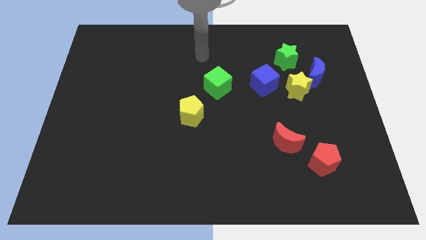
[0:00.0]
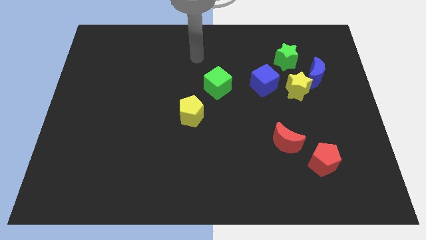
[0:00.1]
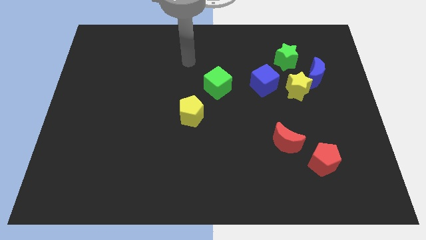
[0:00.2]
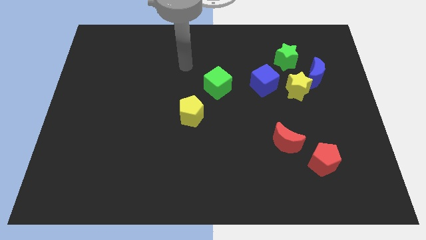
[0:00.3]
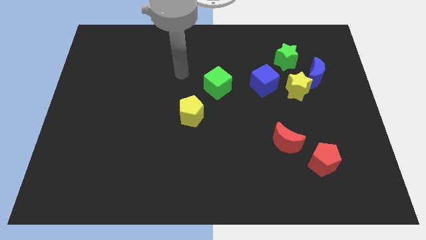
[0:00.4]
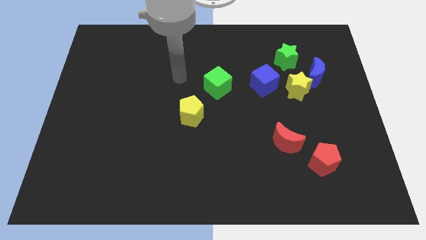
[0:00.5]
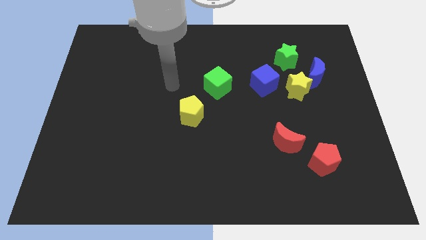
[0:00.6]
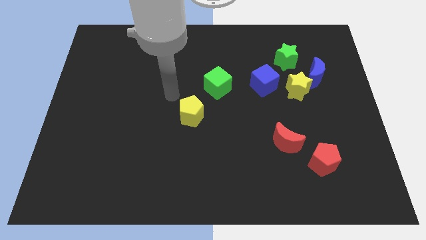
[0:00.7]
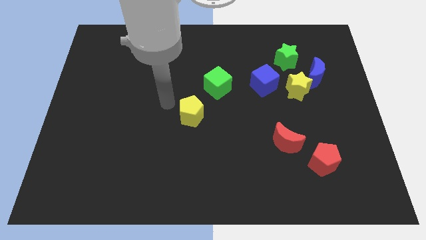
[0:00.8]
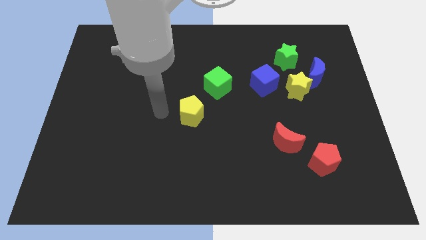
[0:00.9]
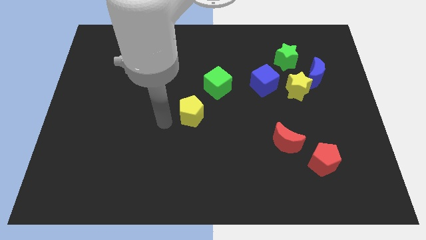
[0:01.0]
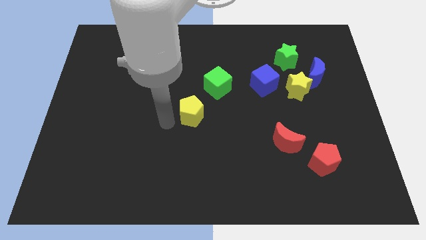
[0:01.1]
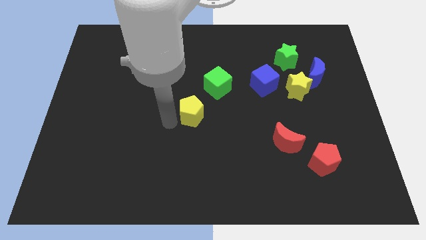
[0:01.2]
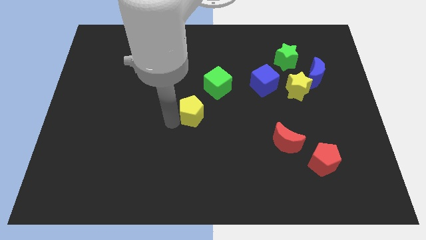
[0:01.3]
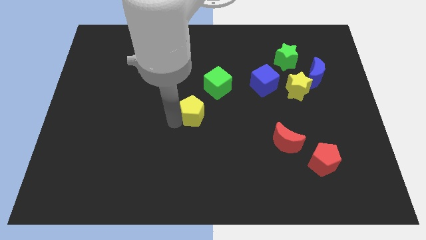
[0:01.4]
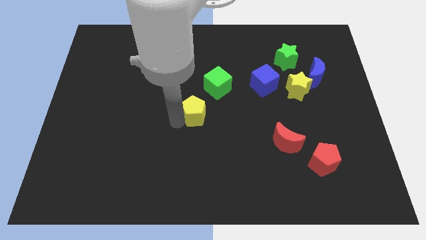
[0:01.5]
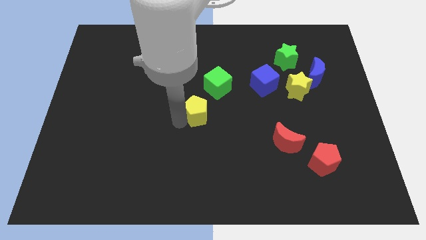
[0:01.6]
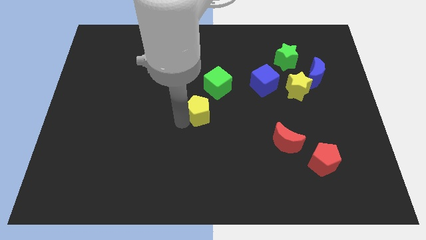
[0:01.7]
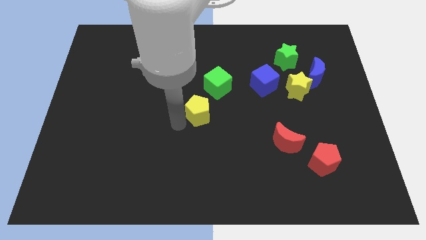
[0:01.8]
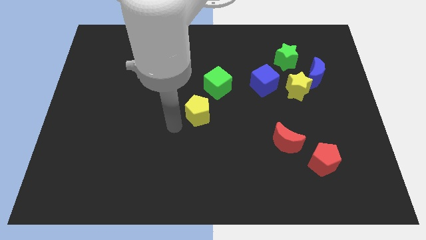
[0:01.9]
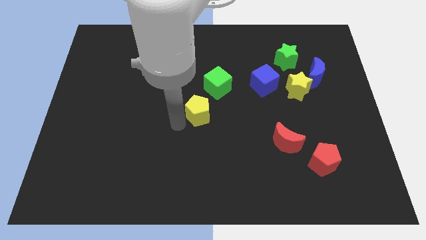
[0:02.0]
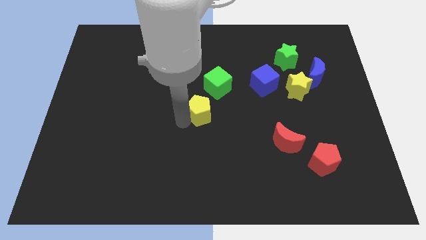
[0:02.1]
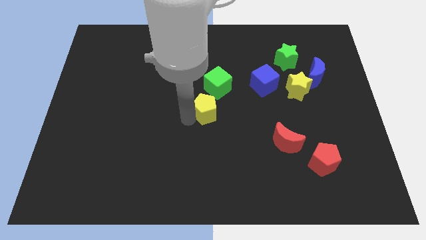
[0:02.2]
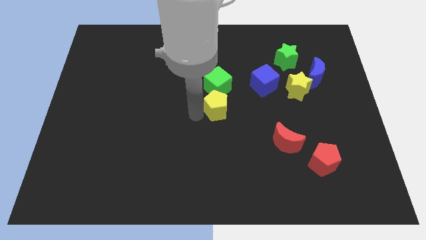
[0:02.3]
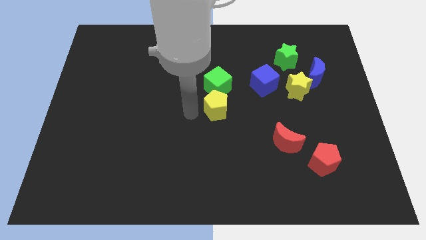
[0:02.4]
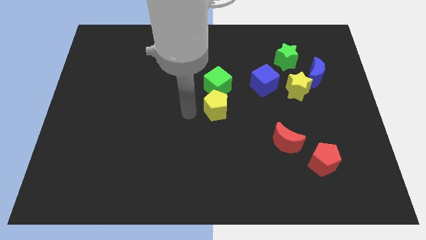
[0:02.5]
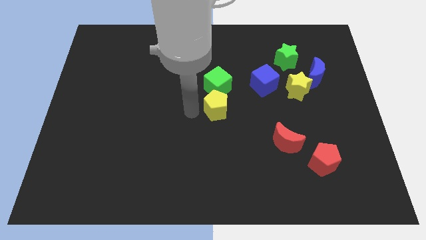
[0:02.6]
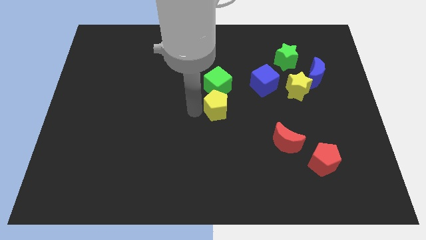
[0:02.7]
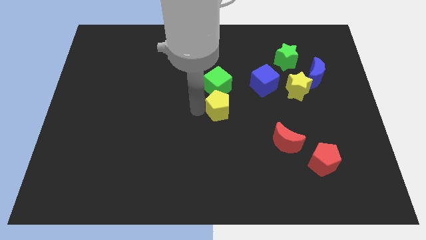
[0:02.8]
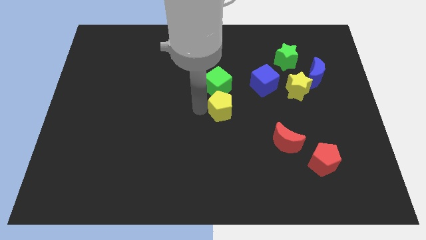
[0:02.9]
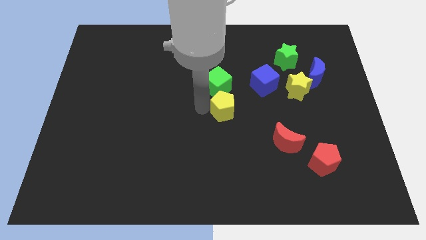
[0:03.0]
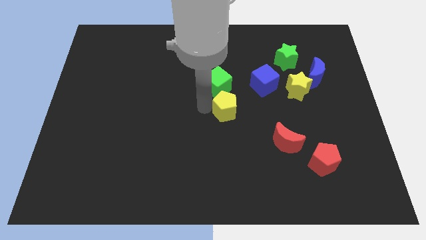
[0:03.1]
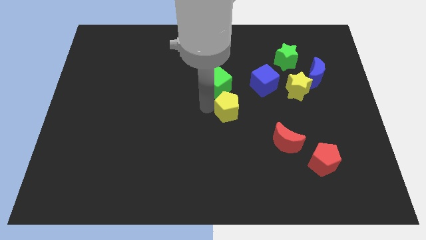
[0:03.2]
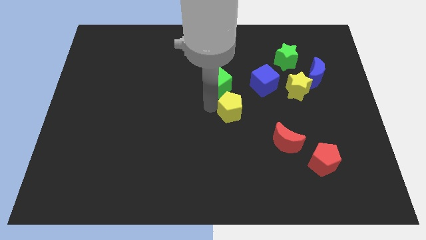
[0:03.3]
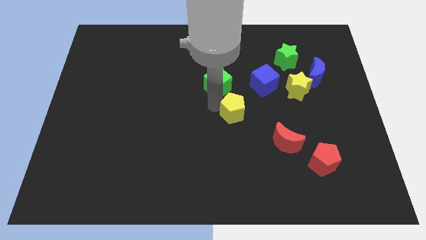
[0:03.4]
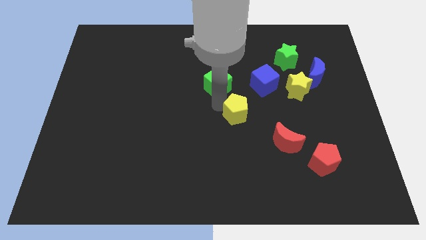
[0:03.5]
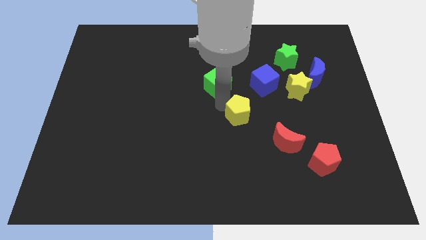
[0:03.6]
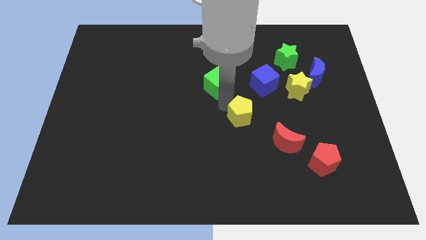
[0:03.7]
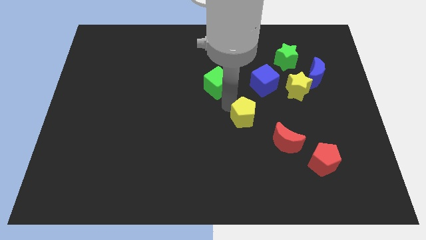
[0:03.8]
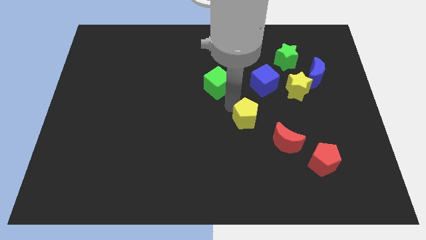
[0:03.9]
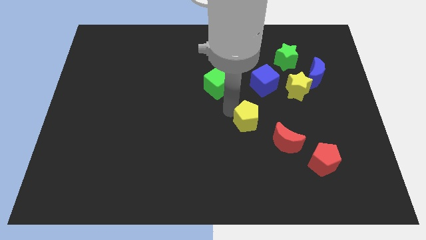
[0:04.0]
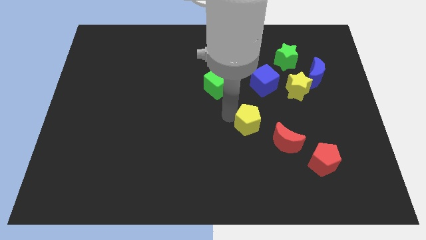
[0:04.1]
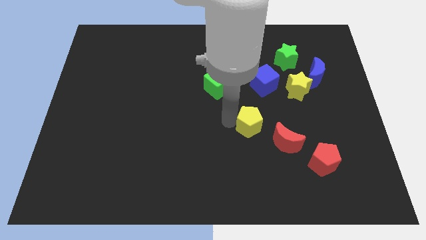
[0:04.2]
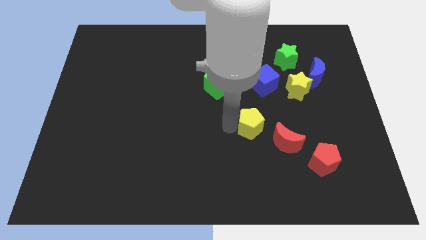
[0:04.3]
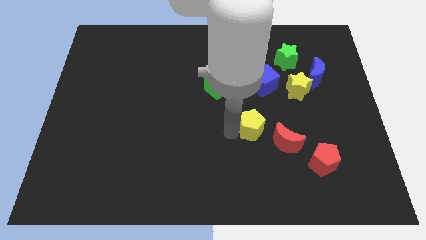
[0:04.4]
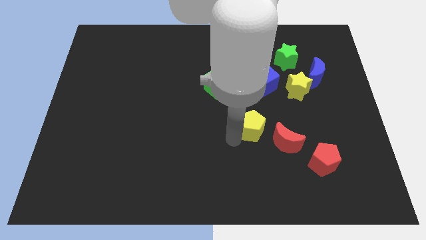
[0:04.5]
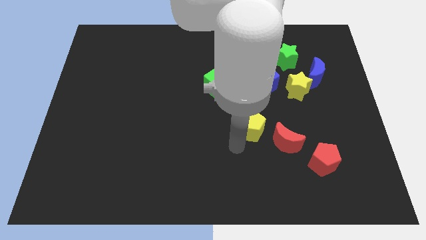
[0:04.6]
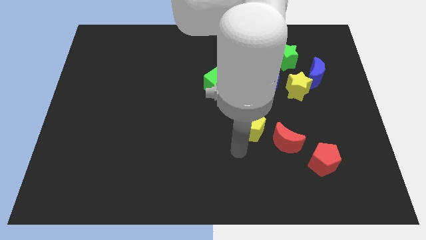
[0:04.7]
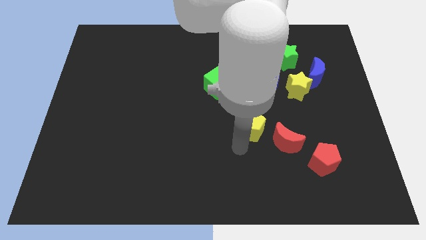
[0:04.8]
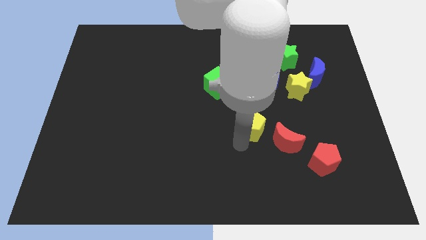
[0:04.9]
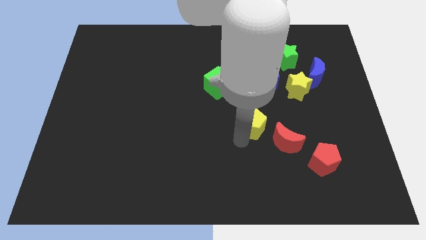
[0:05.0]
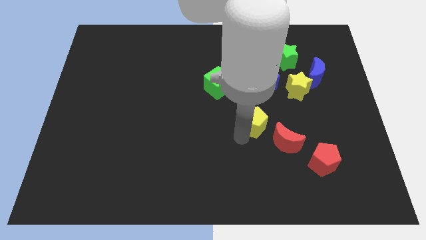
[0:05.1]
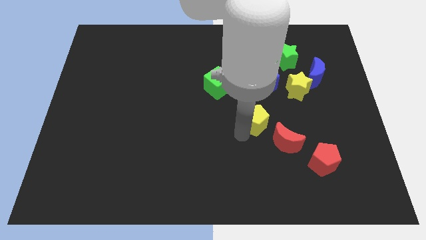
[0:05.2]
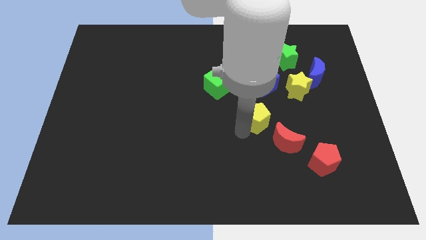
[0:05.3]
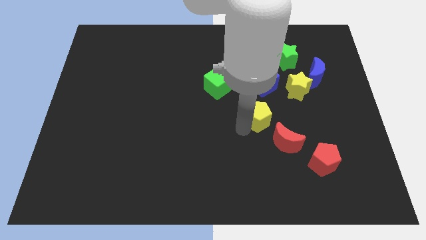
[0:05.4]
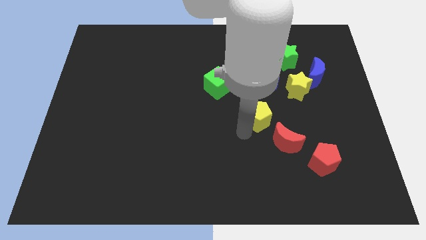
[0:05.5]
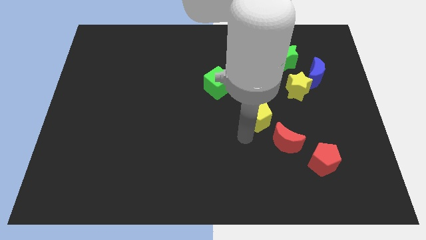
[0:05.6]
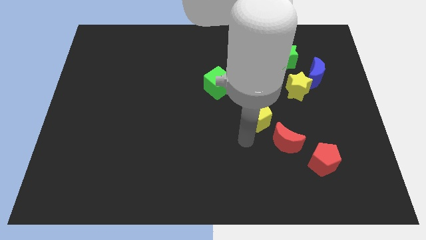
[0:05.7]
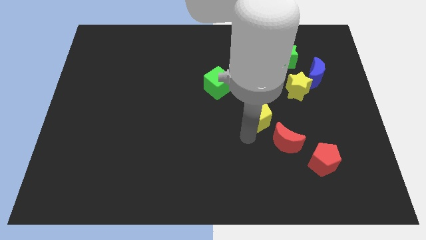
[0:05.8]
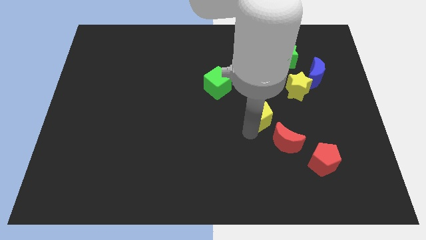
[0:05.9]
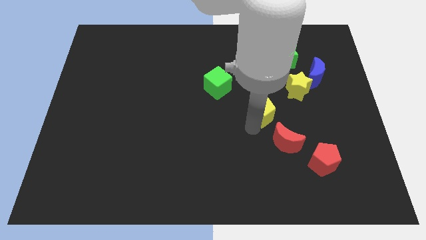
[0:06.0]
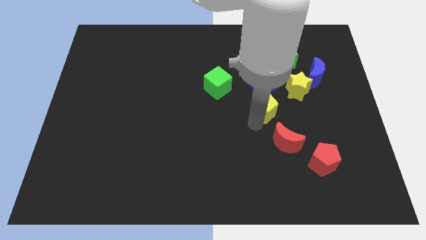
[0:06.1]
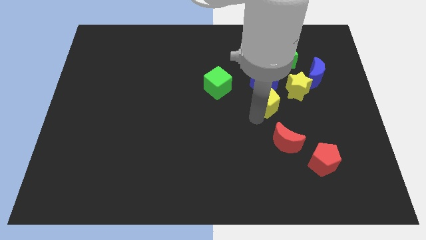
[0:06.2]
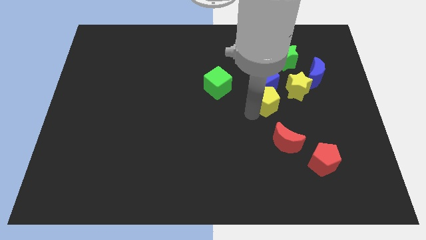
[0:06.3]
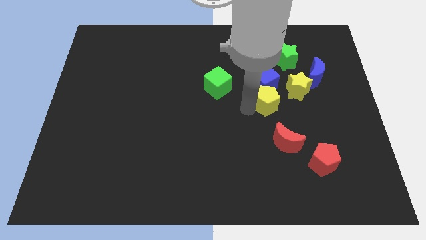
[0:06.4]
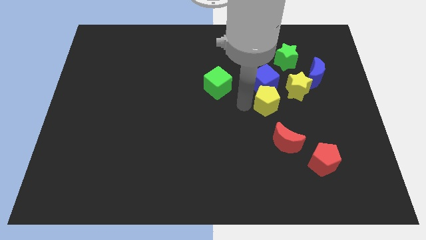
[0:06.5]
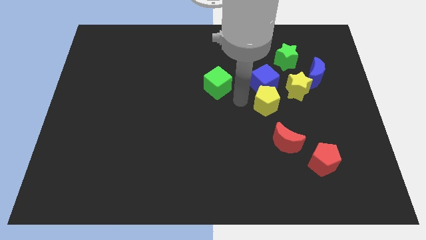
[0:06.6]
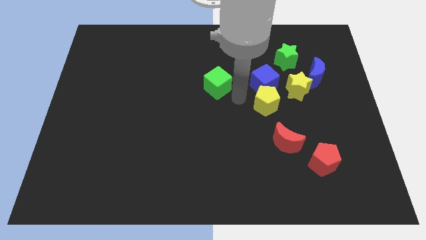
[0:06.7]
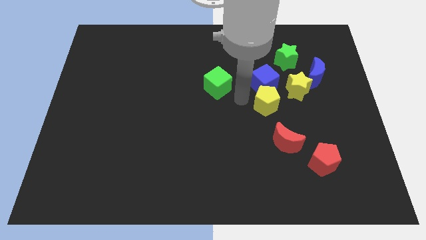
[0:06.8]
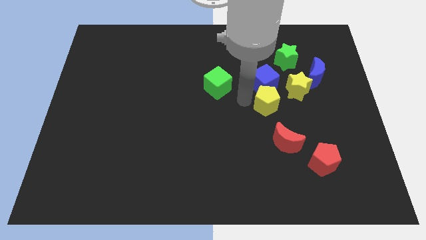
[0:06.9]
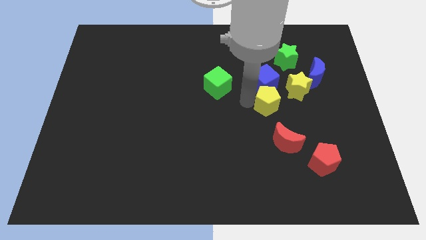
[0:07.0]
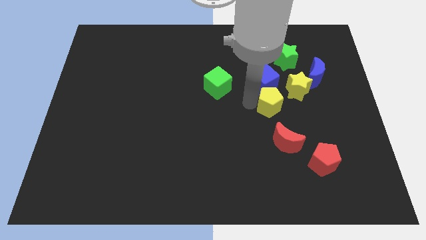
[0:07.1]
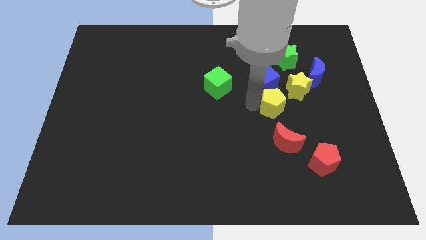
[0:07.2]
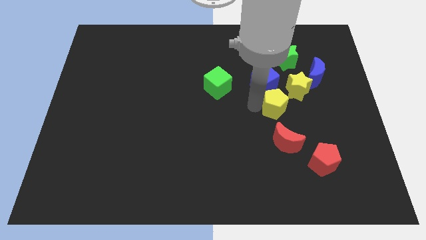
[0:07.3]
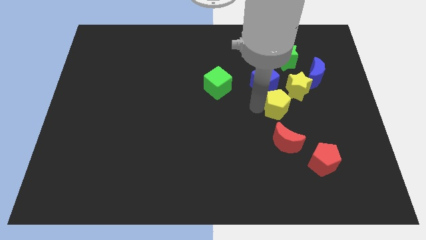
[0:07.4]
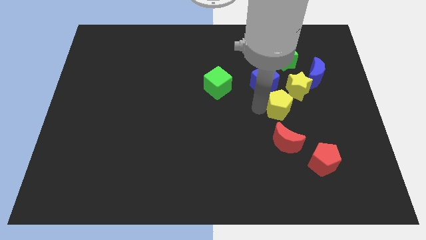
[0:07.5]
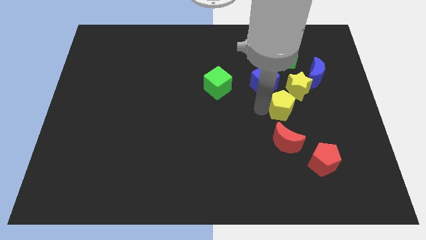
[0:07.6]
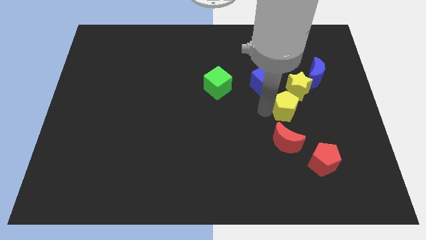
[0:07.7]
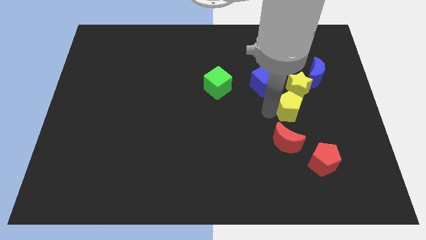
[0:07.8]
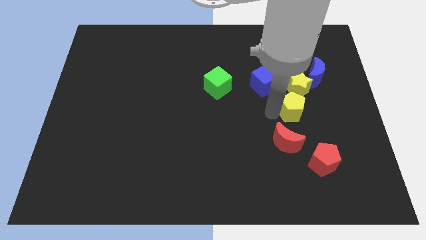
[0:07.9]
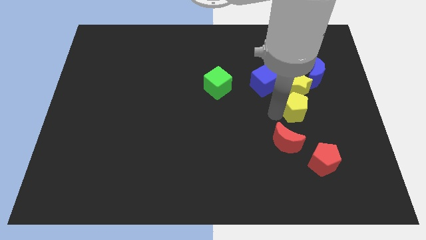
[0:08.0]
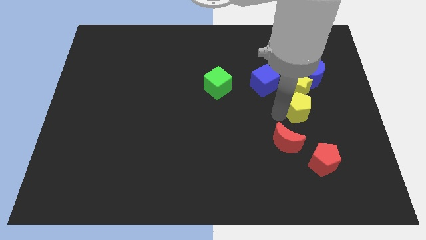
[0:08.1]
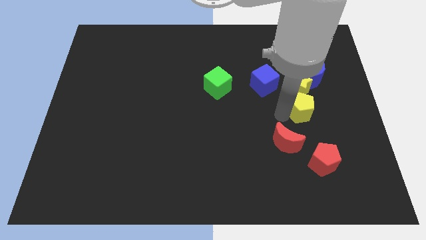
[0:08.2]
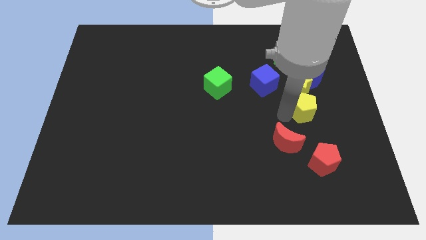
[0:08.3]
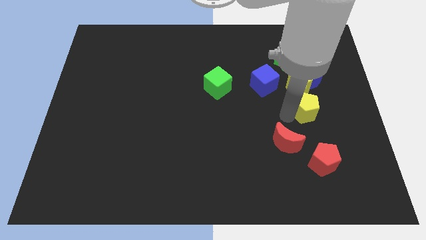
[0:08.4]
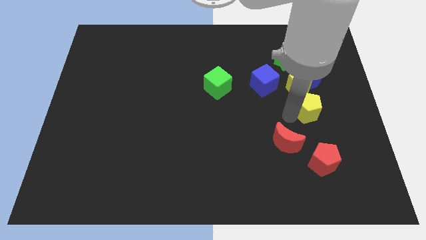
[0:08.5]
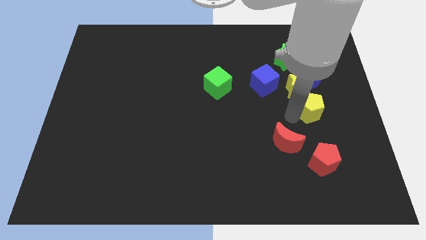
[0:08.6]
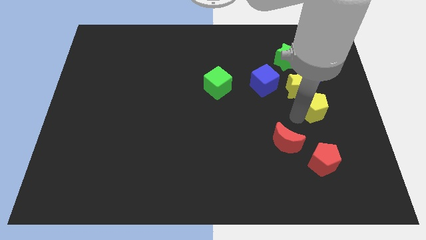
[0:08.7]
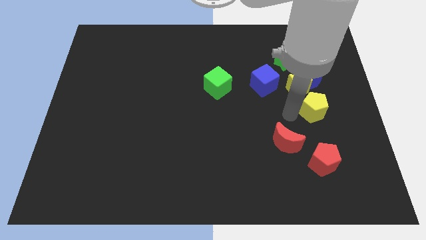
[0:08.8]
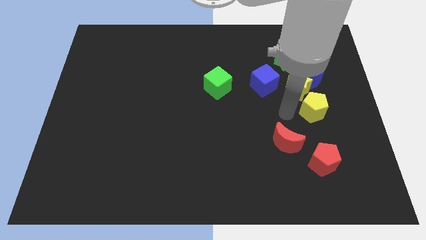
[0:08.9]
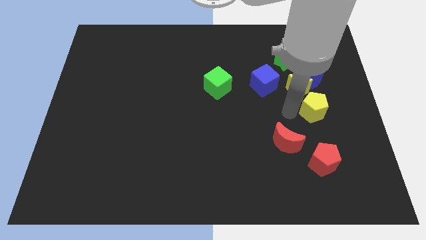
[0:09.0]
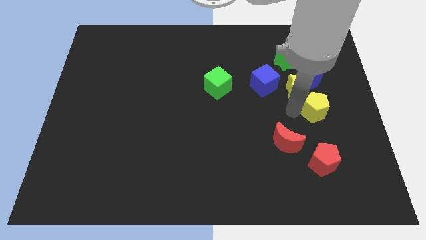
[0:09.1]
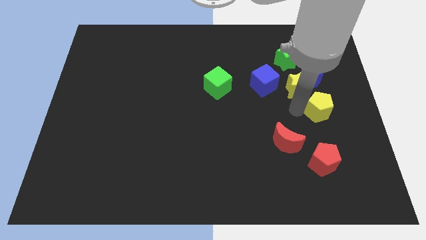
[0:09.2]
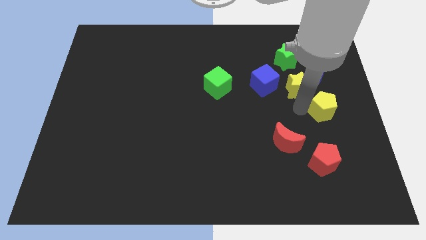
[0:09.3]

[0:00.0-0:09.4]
put the yellow pentagon to the right side
